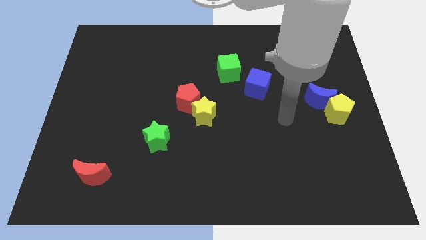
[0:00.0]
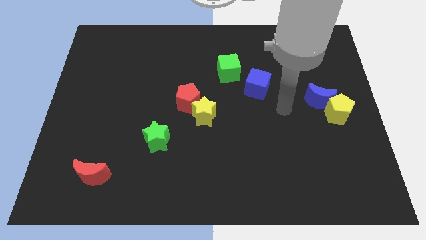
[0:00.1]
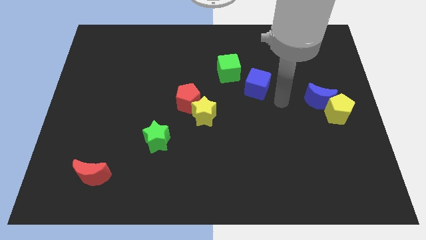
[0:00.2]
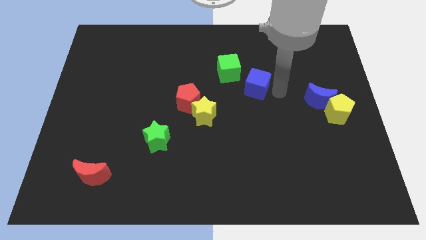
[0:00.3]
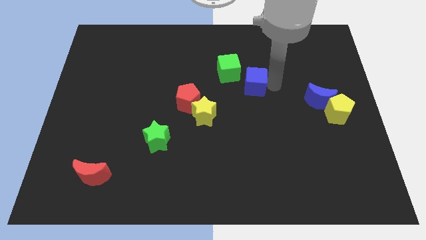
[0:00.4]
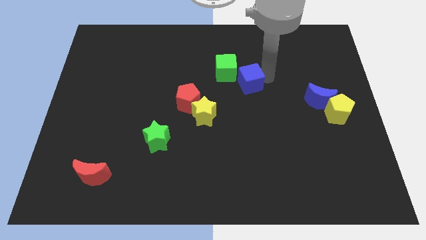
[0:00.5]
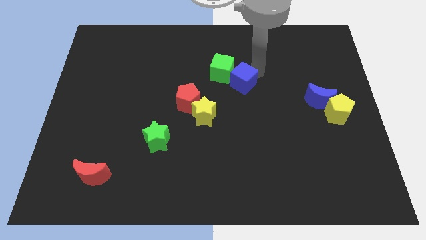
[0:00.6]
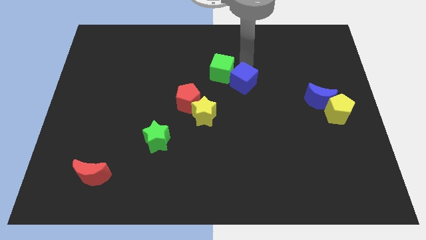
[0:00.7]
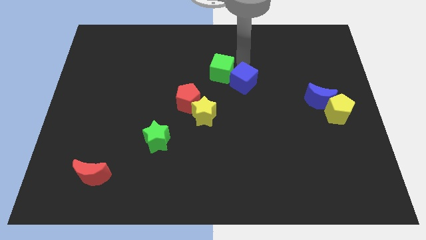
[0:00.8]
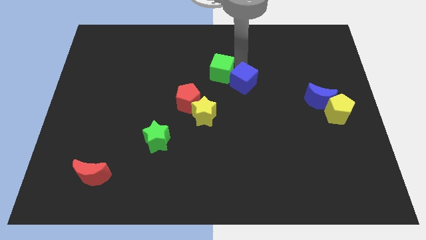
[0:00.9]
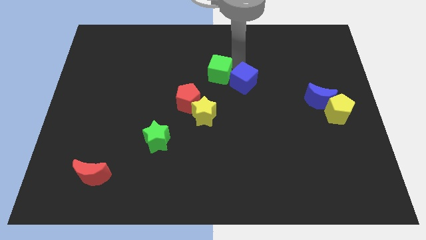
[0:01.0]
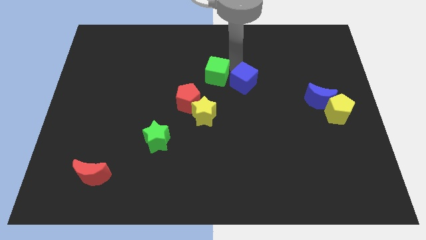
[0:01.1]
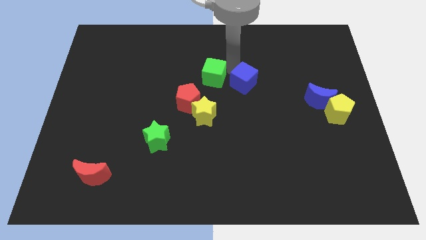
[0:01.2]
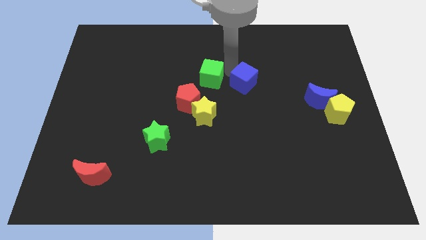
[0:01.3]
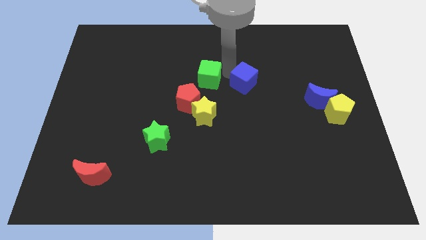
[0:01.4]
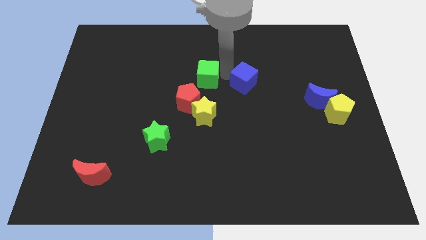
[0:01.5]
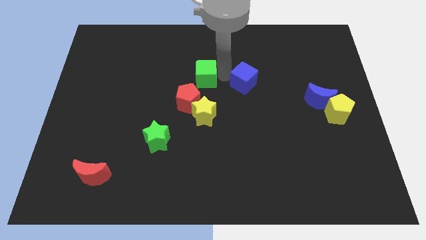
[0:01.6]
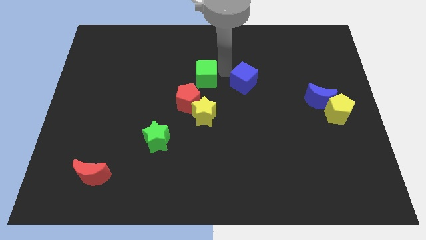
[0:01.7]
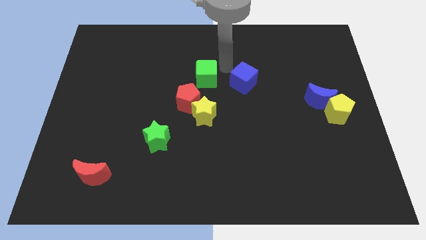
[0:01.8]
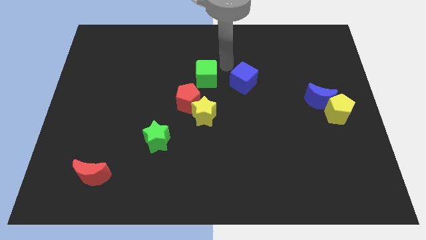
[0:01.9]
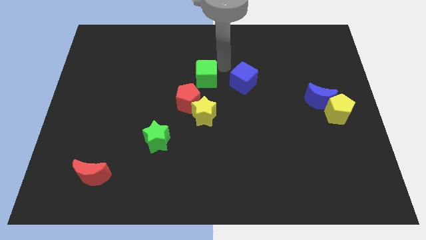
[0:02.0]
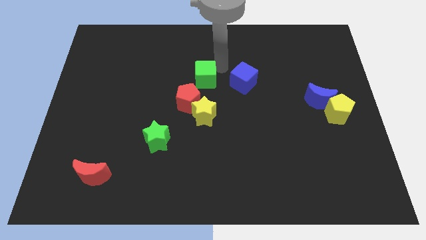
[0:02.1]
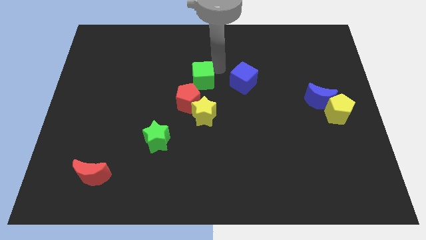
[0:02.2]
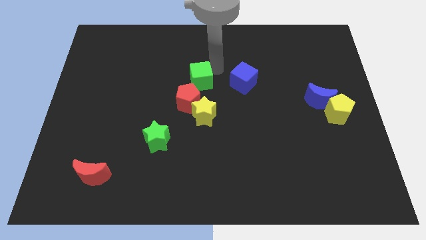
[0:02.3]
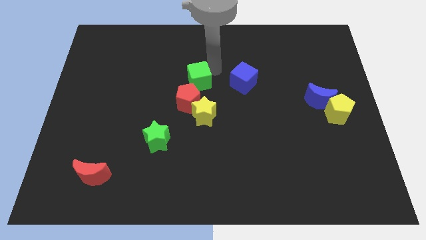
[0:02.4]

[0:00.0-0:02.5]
push the green cube down and to the left slightly

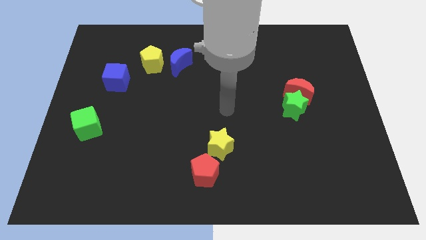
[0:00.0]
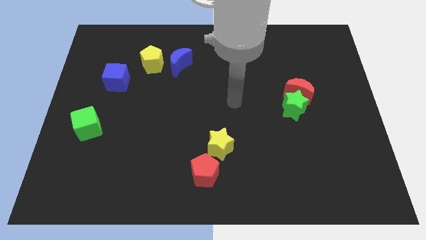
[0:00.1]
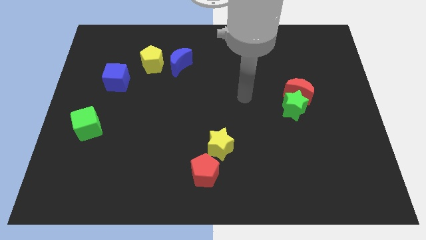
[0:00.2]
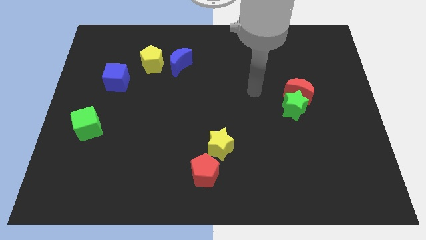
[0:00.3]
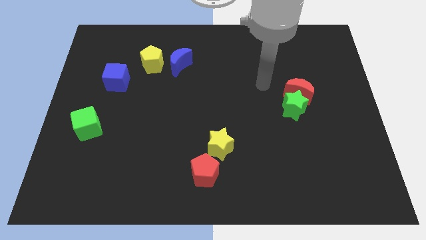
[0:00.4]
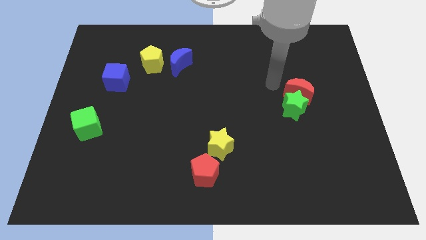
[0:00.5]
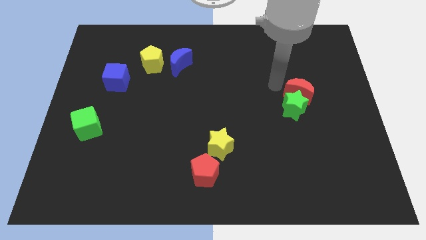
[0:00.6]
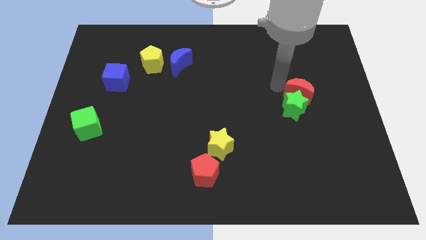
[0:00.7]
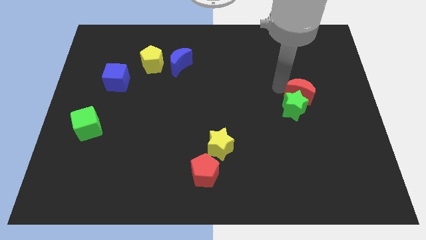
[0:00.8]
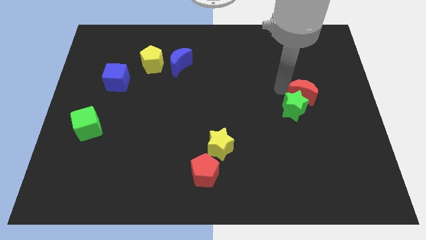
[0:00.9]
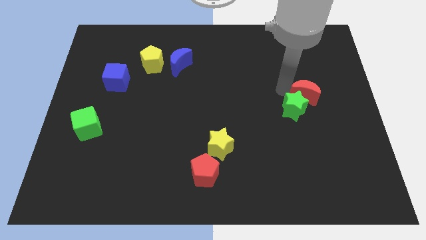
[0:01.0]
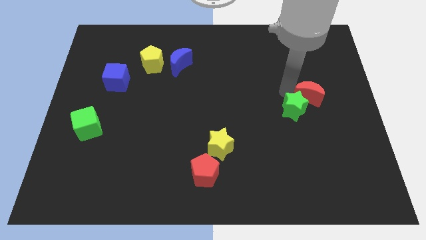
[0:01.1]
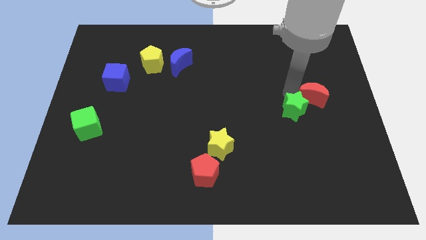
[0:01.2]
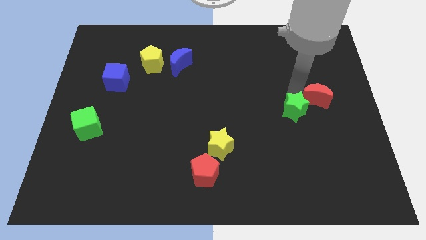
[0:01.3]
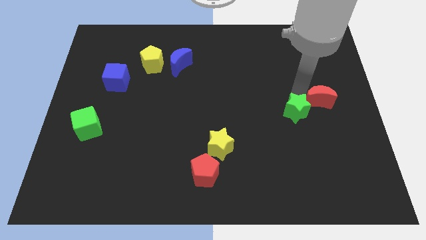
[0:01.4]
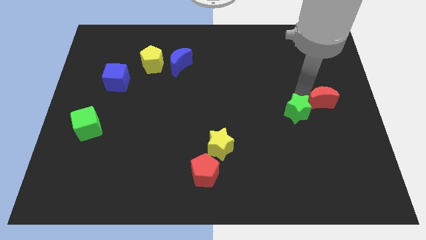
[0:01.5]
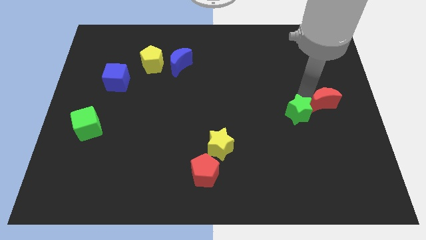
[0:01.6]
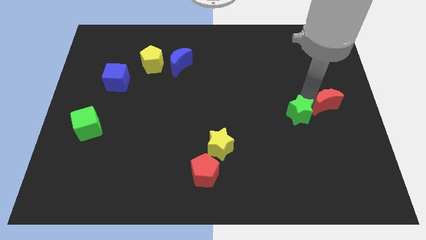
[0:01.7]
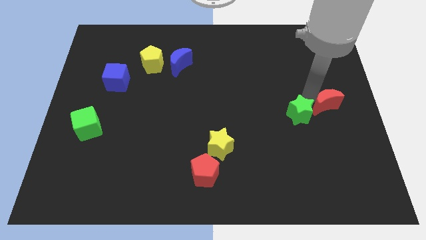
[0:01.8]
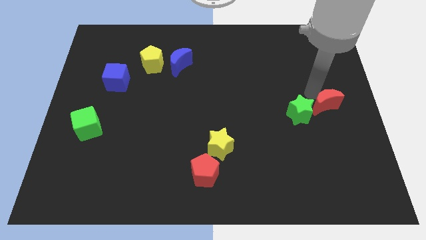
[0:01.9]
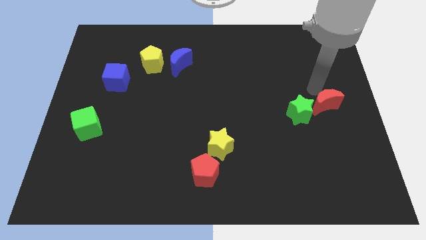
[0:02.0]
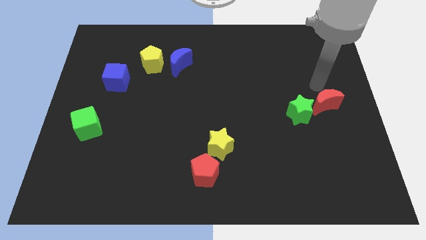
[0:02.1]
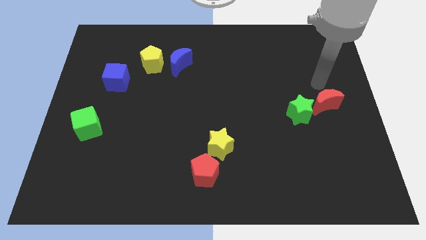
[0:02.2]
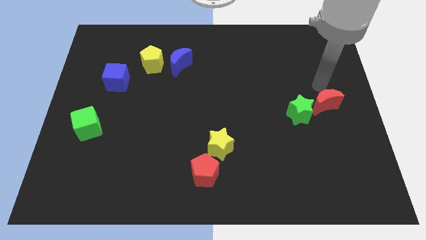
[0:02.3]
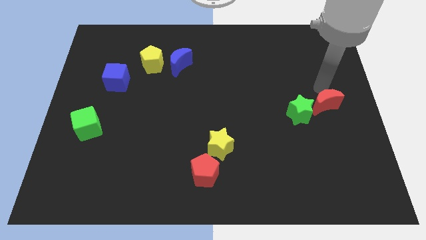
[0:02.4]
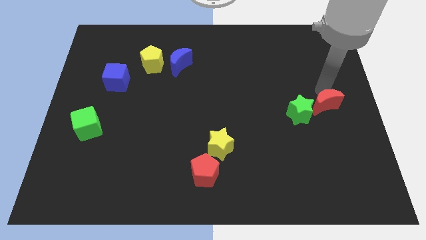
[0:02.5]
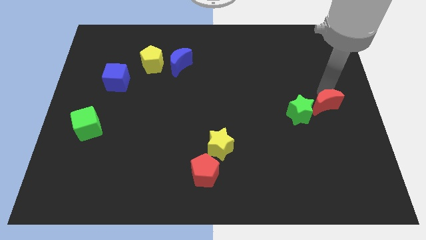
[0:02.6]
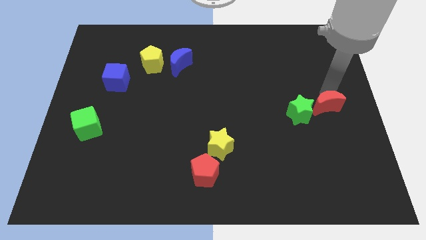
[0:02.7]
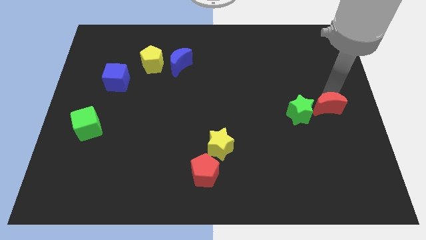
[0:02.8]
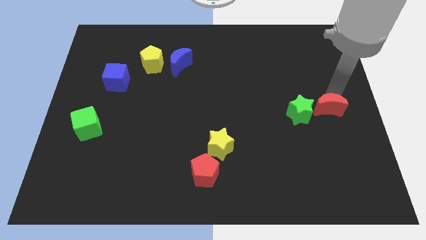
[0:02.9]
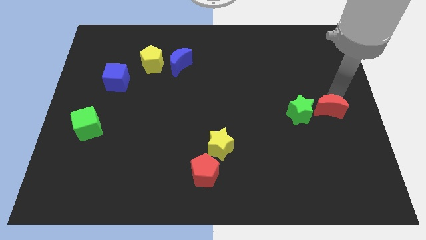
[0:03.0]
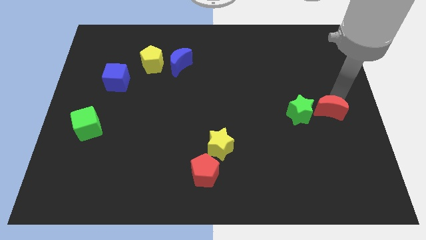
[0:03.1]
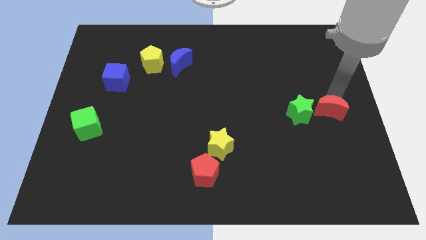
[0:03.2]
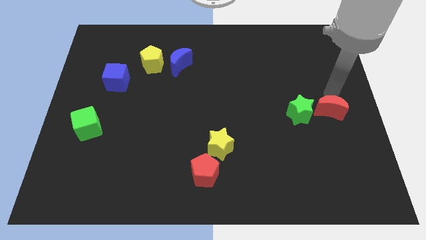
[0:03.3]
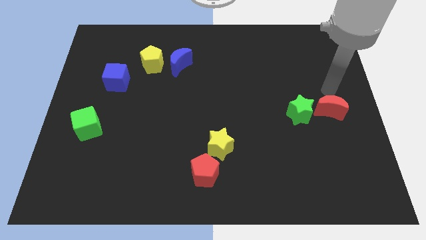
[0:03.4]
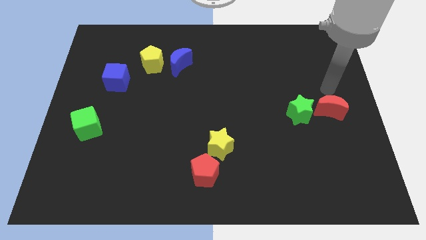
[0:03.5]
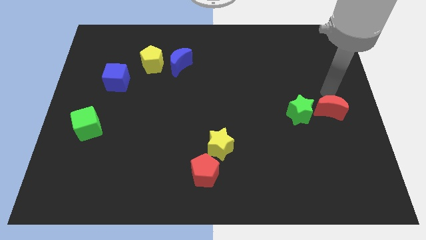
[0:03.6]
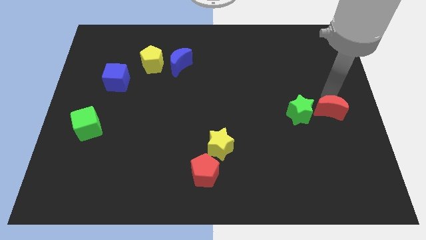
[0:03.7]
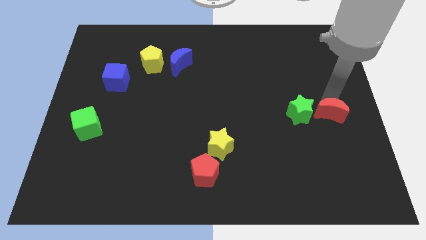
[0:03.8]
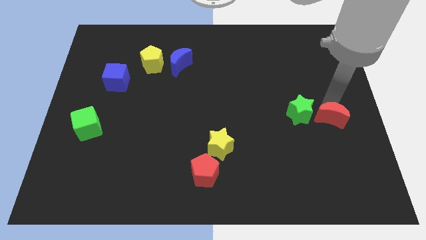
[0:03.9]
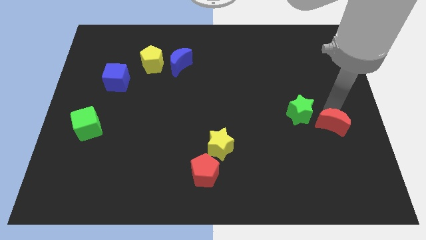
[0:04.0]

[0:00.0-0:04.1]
slide the red moon downwards slightly

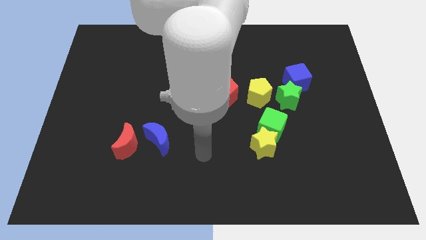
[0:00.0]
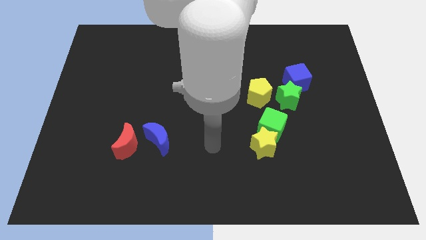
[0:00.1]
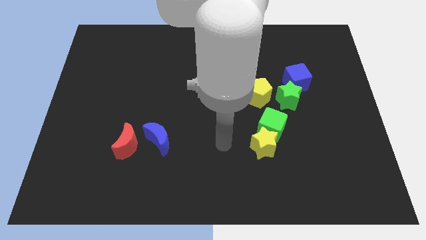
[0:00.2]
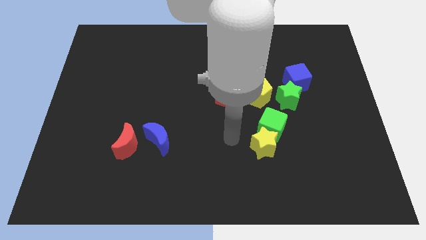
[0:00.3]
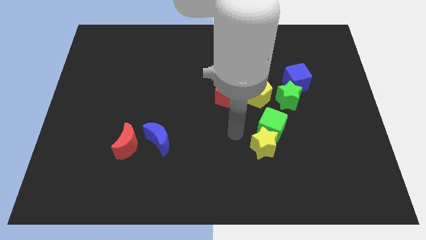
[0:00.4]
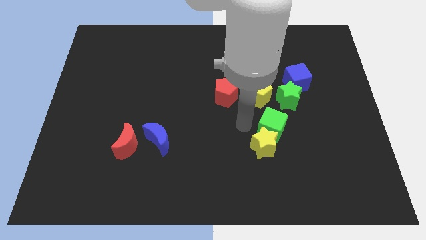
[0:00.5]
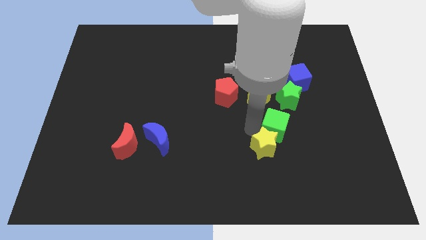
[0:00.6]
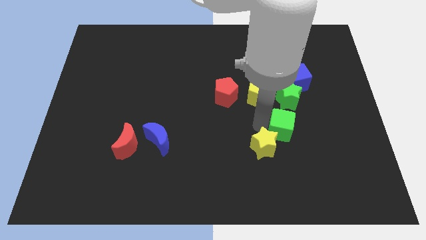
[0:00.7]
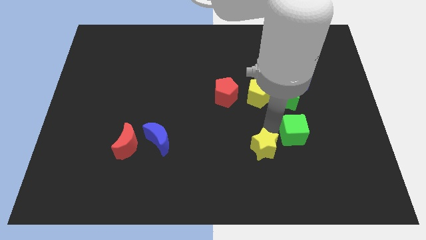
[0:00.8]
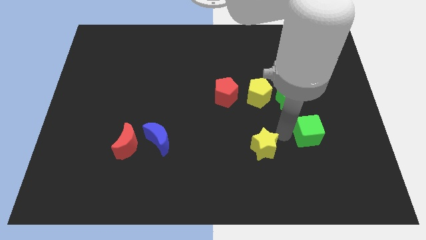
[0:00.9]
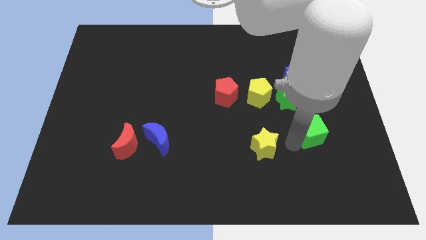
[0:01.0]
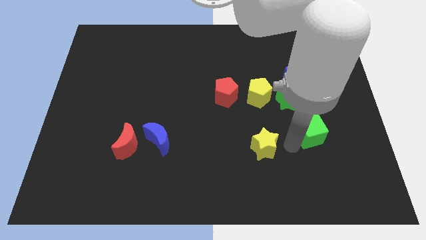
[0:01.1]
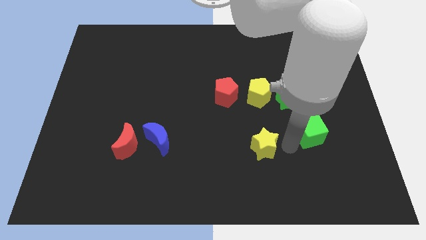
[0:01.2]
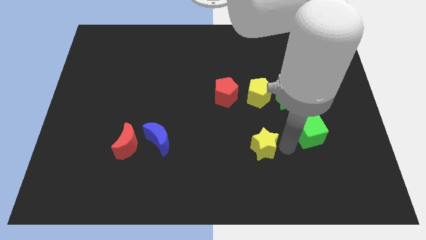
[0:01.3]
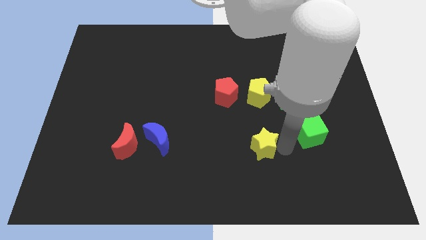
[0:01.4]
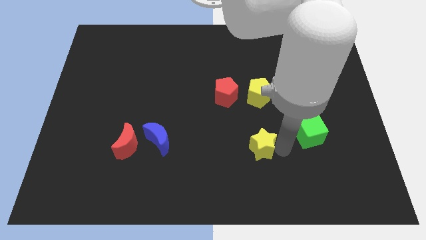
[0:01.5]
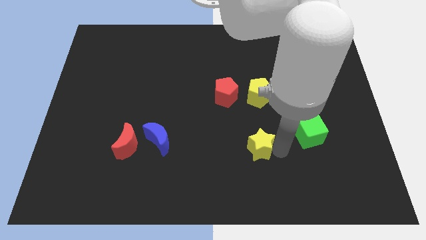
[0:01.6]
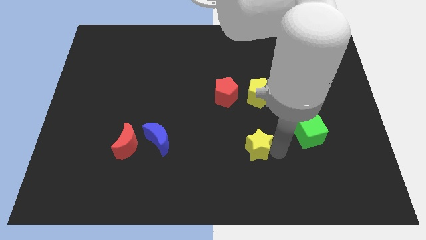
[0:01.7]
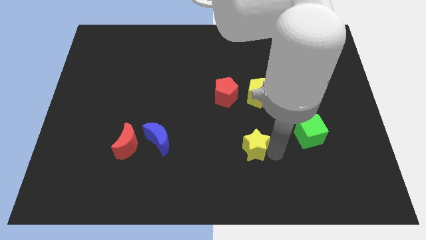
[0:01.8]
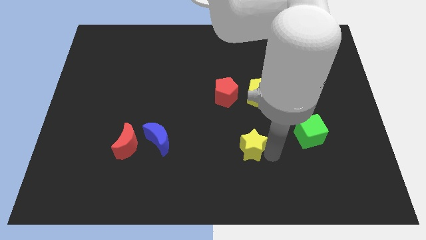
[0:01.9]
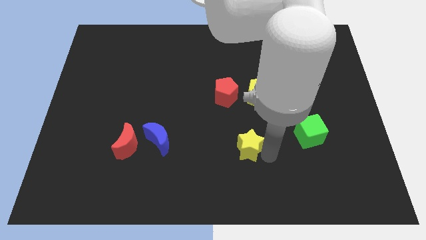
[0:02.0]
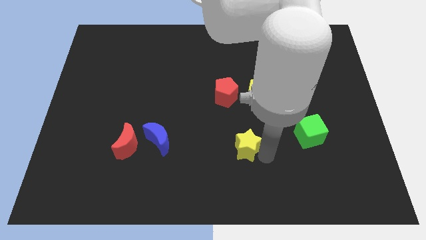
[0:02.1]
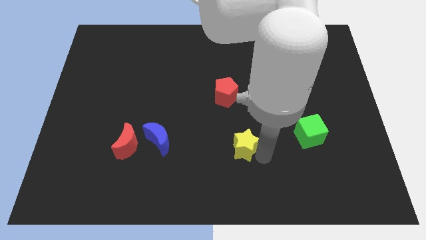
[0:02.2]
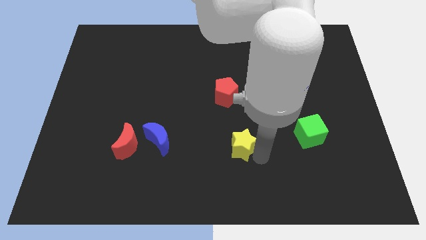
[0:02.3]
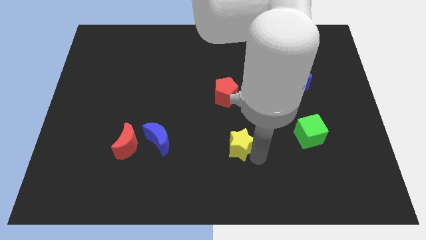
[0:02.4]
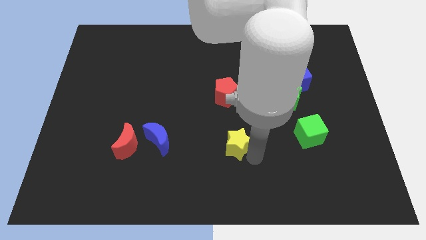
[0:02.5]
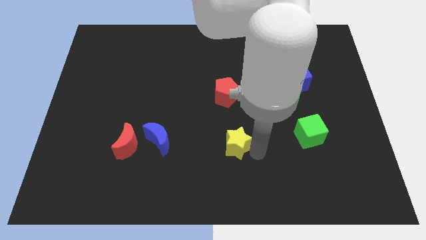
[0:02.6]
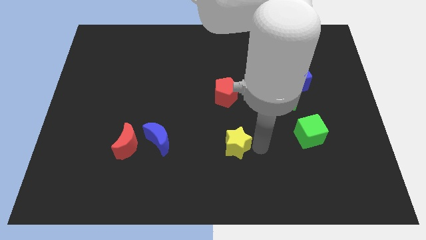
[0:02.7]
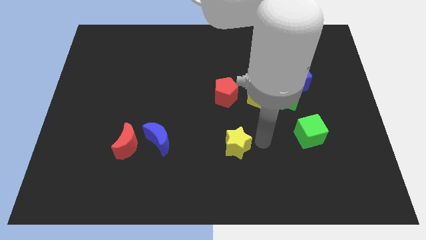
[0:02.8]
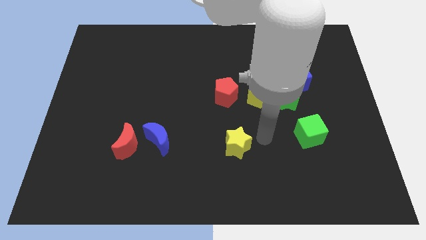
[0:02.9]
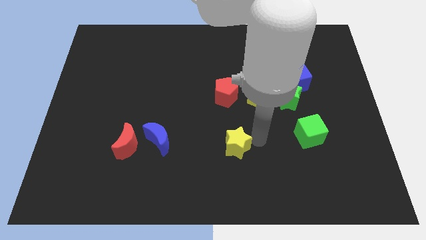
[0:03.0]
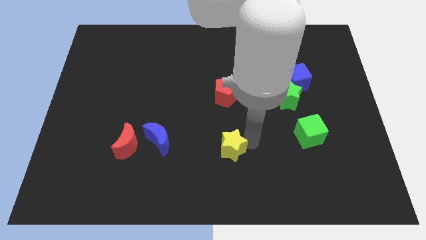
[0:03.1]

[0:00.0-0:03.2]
slightly push the yellow star to the left
